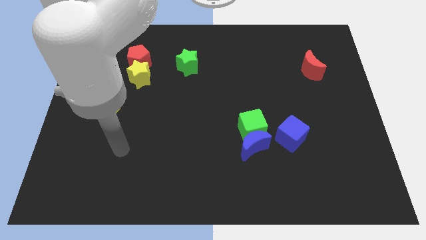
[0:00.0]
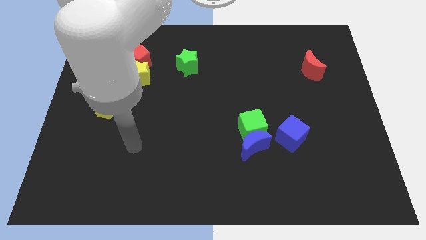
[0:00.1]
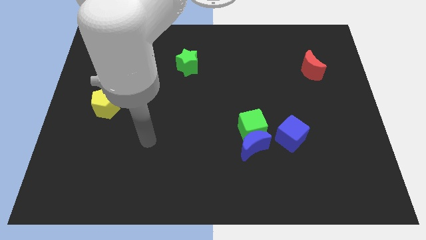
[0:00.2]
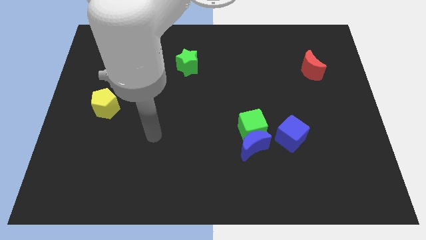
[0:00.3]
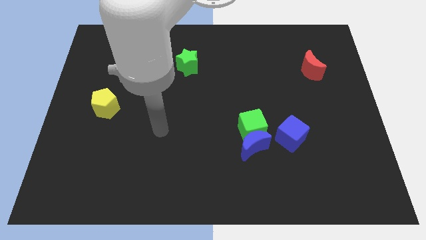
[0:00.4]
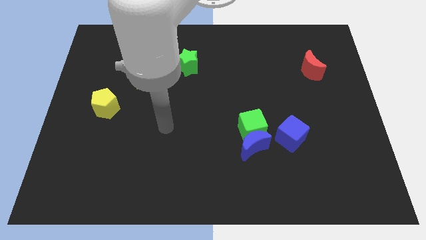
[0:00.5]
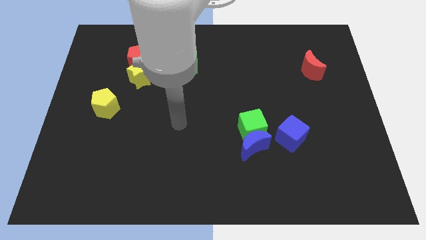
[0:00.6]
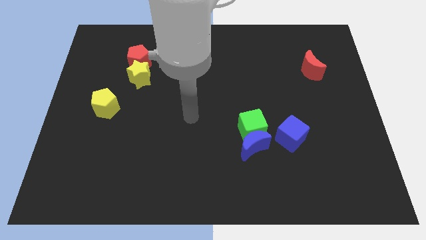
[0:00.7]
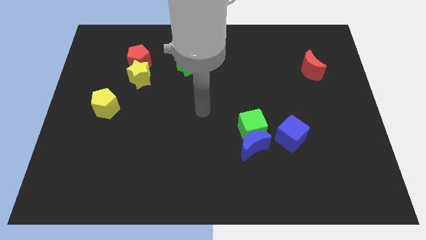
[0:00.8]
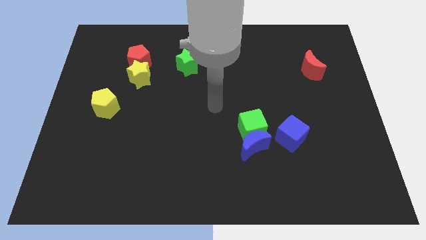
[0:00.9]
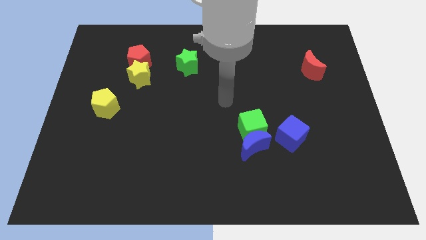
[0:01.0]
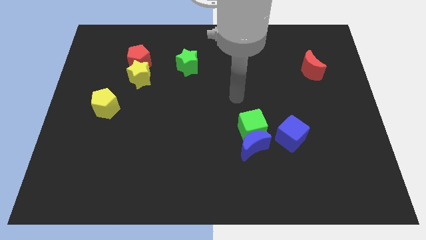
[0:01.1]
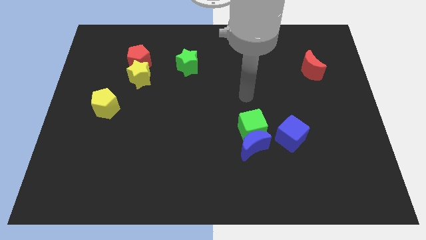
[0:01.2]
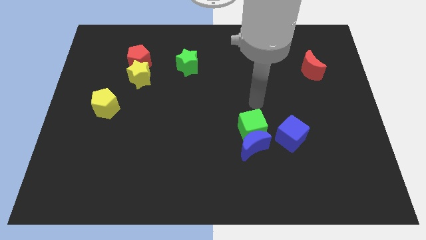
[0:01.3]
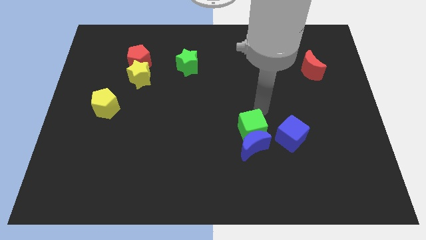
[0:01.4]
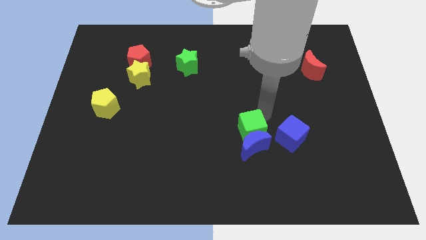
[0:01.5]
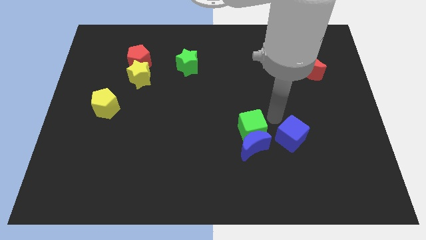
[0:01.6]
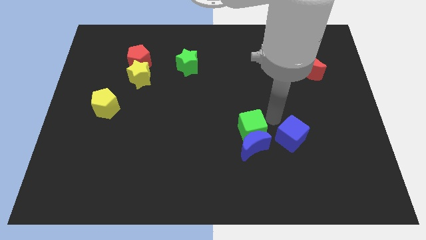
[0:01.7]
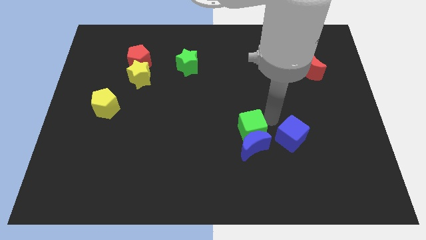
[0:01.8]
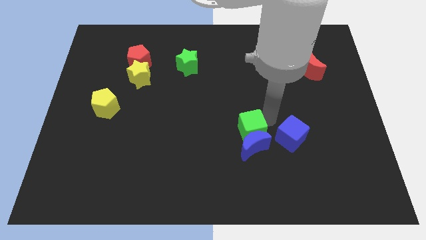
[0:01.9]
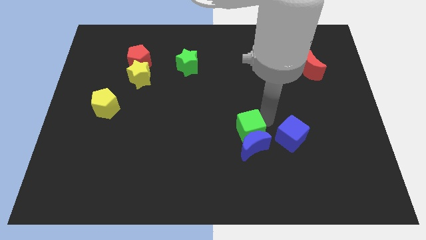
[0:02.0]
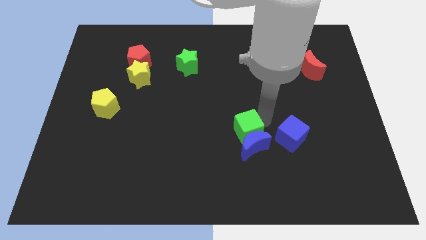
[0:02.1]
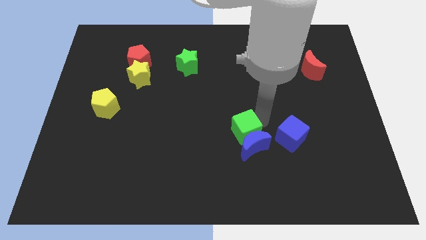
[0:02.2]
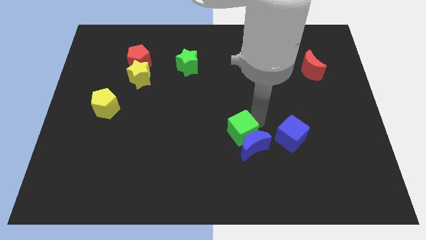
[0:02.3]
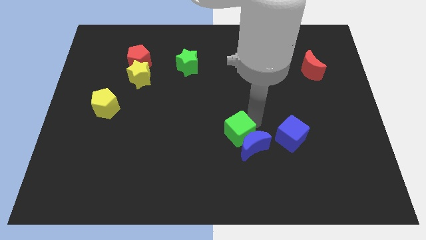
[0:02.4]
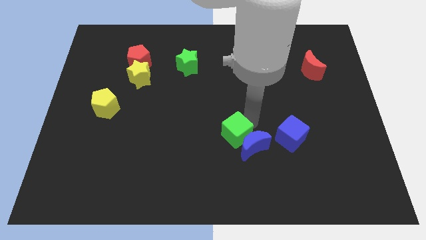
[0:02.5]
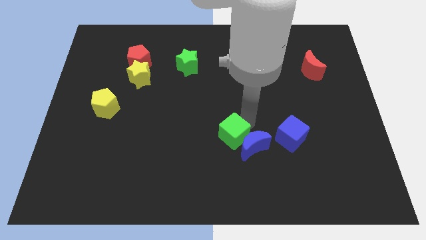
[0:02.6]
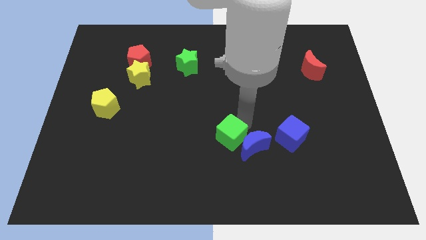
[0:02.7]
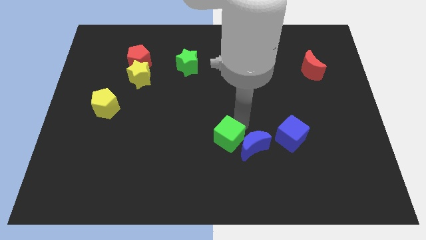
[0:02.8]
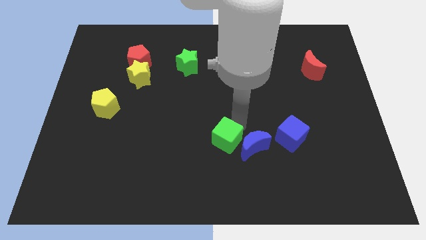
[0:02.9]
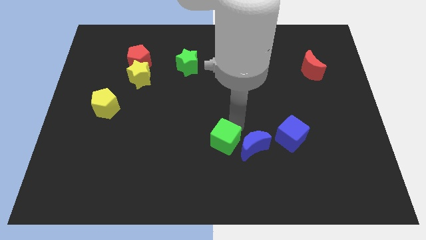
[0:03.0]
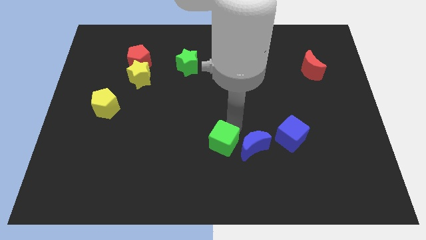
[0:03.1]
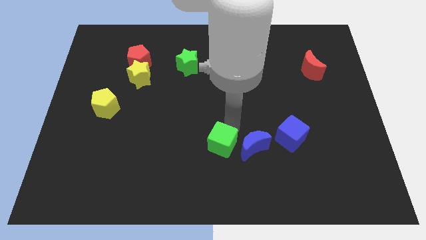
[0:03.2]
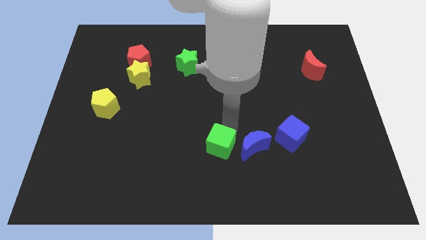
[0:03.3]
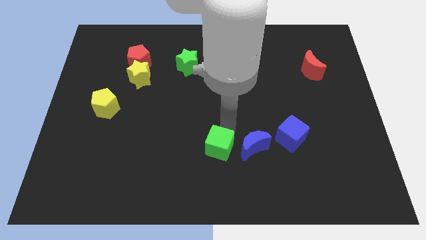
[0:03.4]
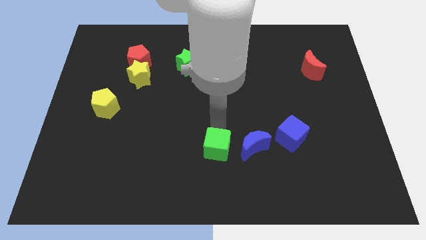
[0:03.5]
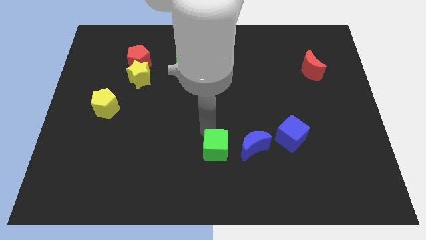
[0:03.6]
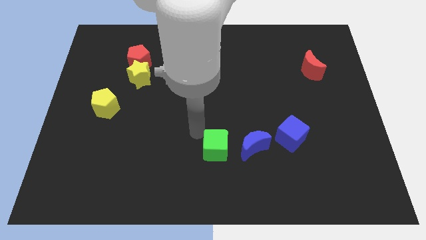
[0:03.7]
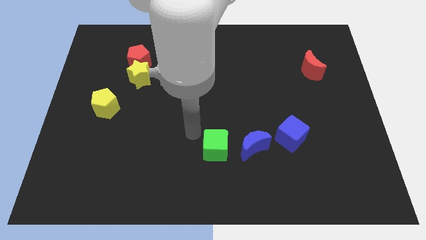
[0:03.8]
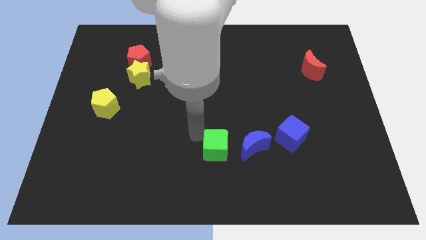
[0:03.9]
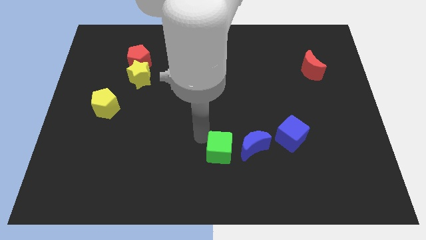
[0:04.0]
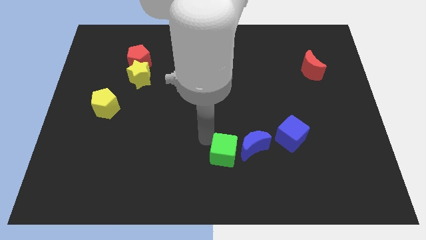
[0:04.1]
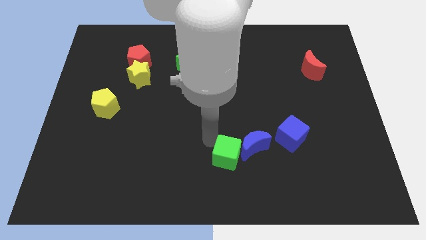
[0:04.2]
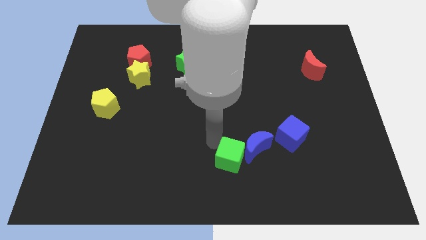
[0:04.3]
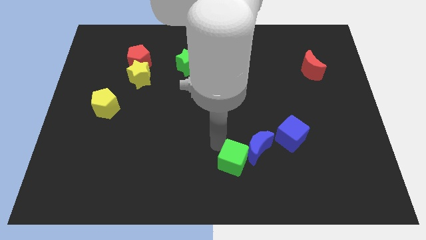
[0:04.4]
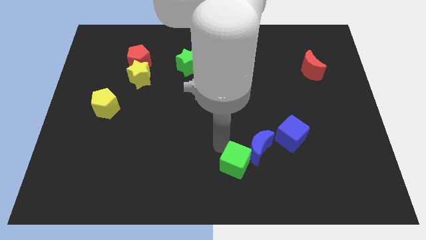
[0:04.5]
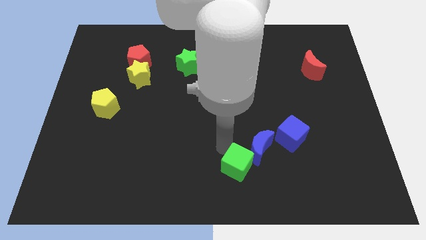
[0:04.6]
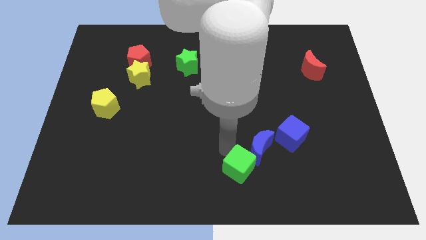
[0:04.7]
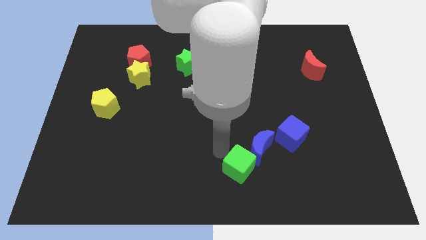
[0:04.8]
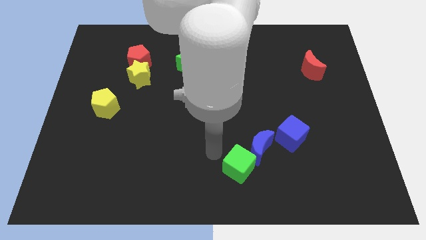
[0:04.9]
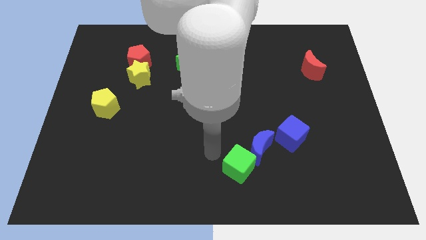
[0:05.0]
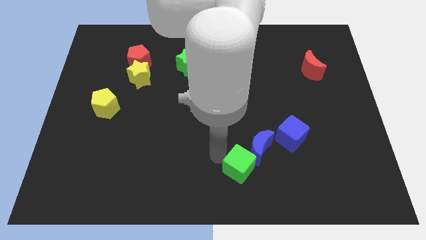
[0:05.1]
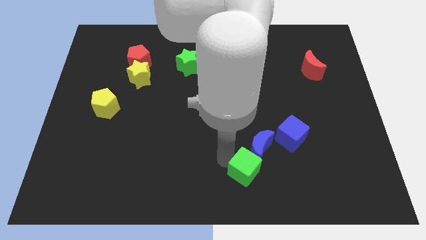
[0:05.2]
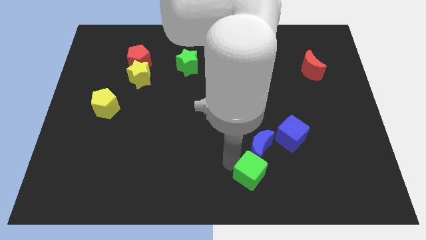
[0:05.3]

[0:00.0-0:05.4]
move the green cube to the bottom left side of the blue cube
